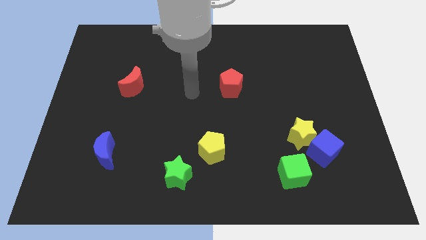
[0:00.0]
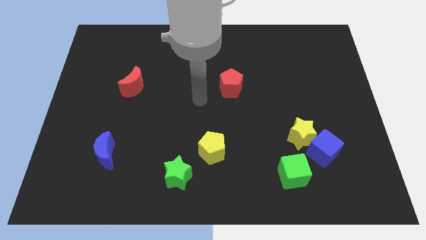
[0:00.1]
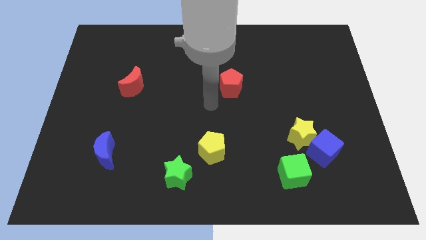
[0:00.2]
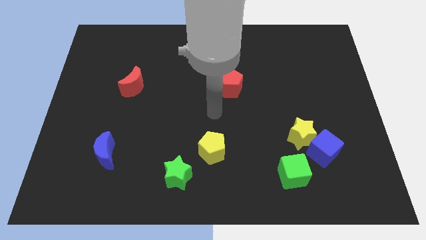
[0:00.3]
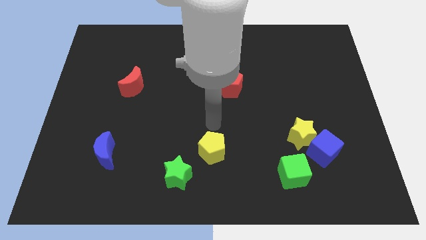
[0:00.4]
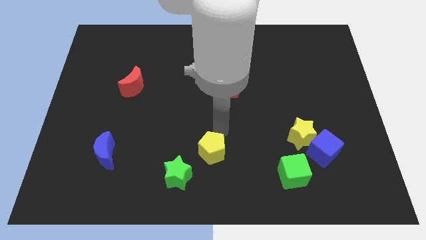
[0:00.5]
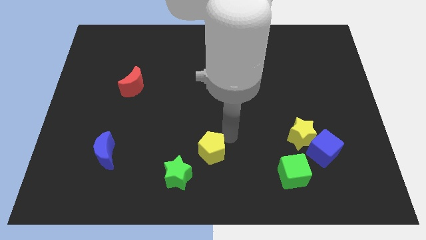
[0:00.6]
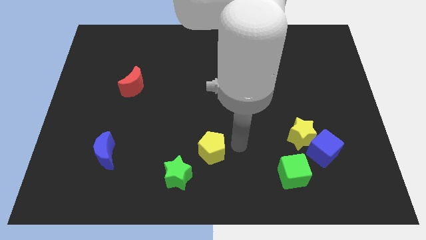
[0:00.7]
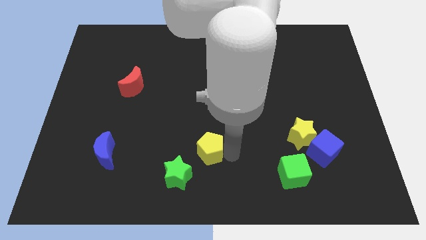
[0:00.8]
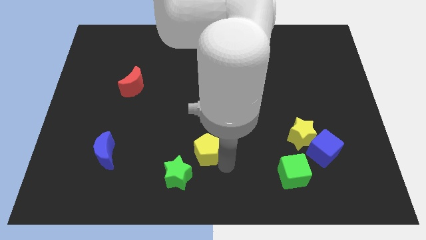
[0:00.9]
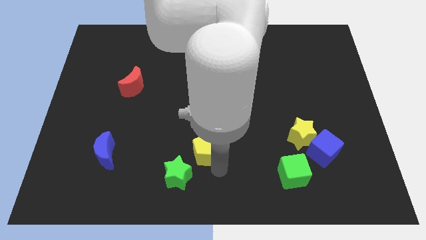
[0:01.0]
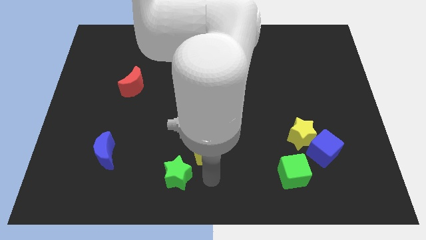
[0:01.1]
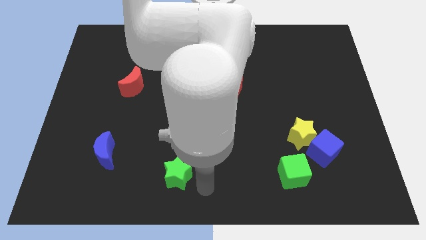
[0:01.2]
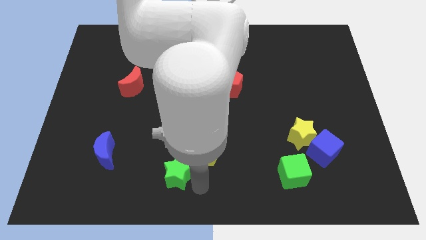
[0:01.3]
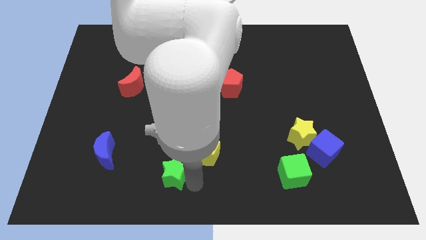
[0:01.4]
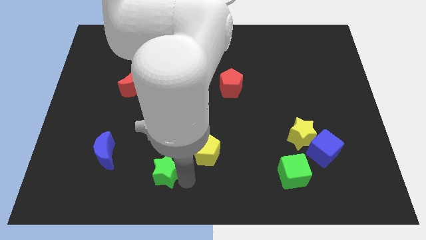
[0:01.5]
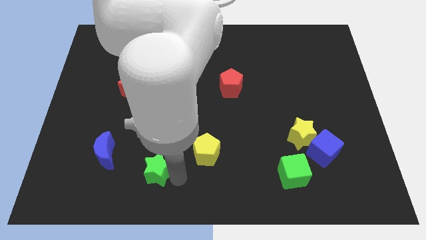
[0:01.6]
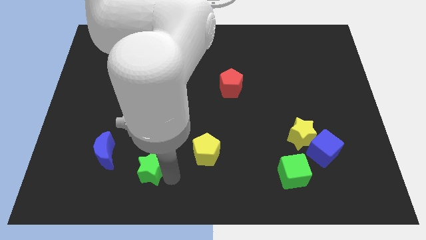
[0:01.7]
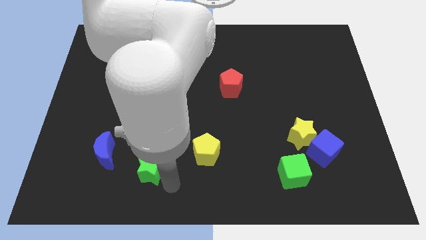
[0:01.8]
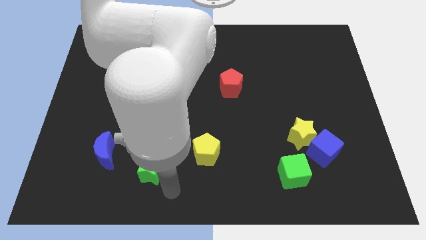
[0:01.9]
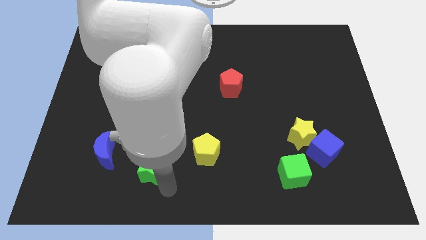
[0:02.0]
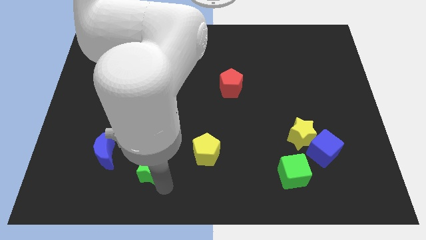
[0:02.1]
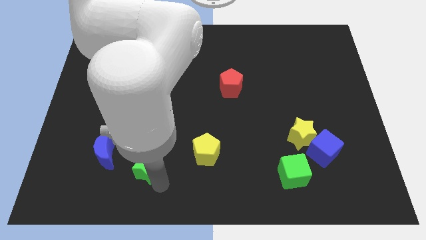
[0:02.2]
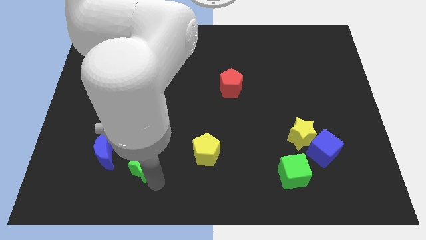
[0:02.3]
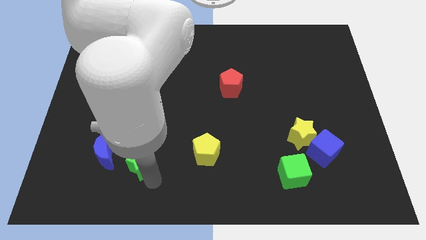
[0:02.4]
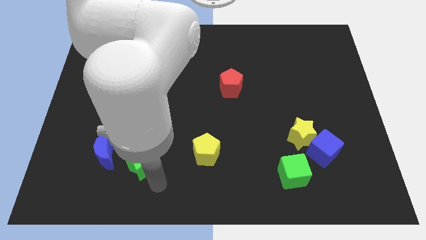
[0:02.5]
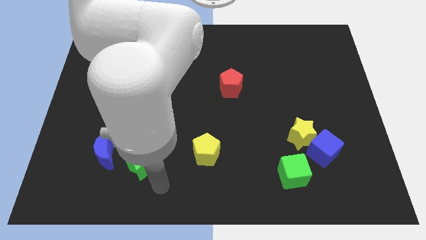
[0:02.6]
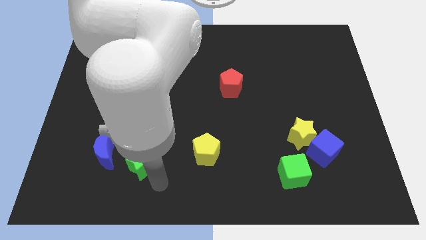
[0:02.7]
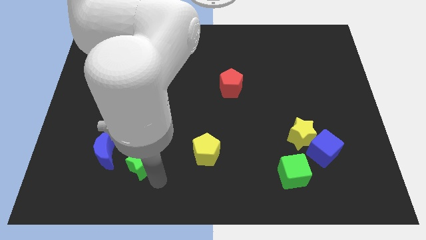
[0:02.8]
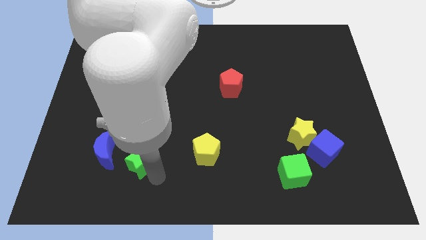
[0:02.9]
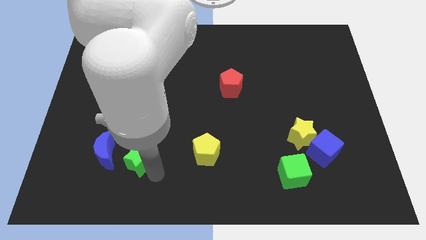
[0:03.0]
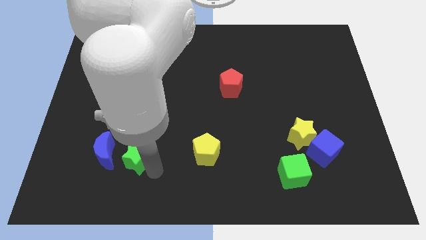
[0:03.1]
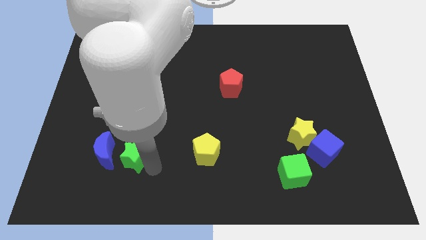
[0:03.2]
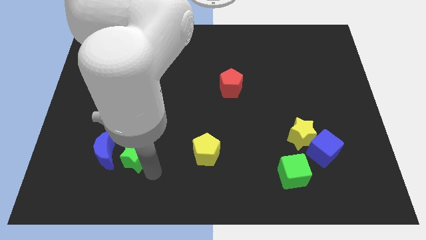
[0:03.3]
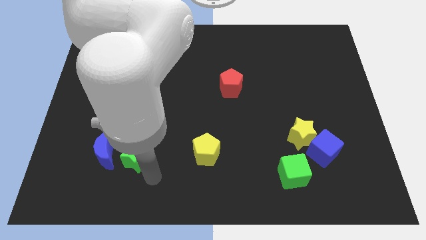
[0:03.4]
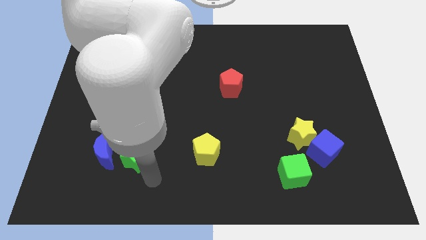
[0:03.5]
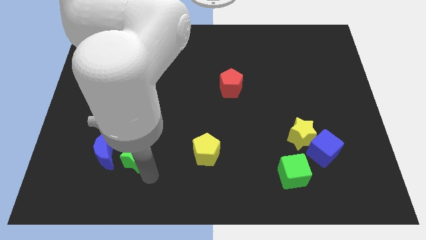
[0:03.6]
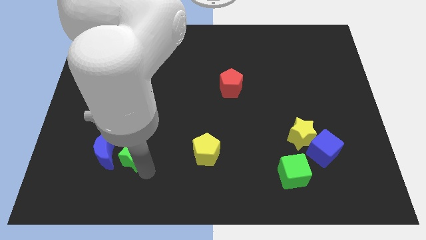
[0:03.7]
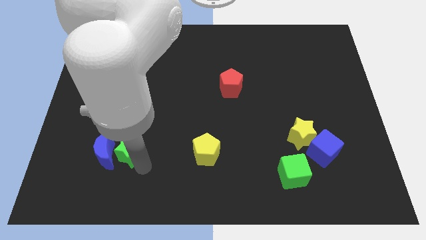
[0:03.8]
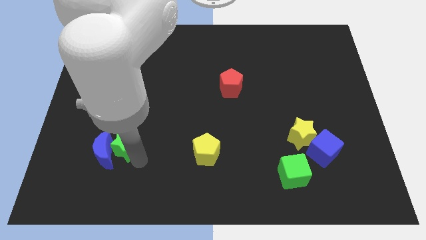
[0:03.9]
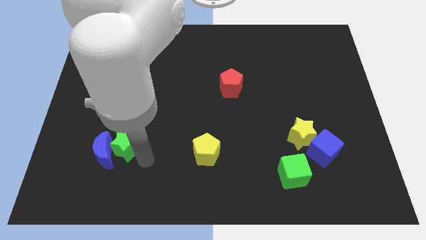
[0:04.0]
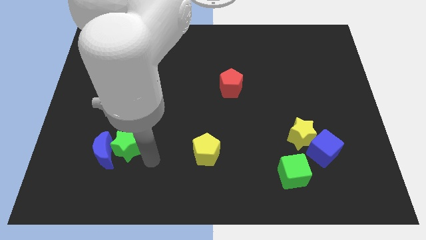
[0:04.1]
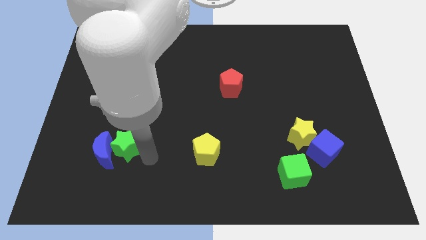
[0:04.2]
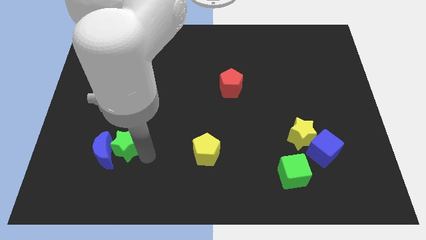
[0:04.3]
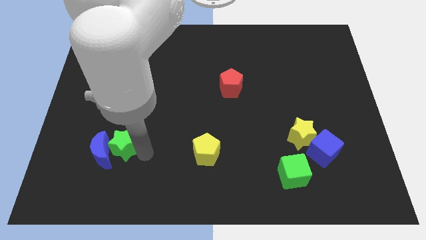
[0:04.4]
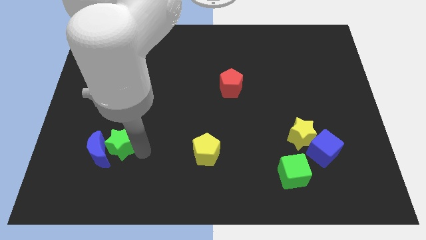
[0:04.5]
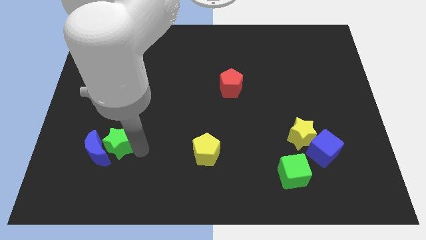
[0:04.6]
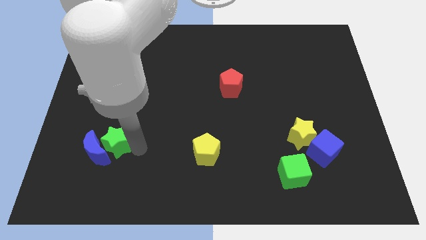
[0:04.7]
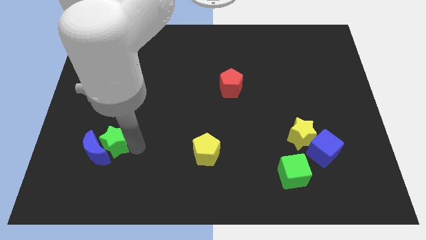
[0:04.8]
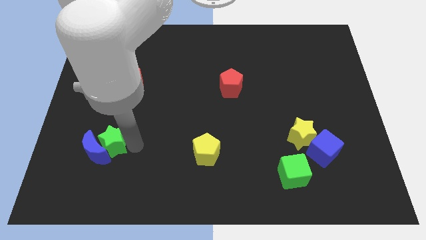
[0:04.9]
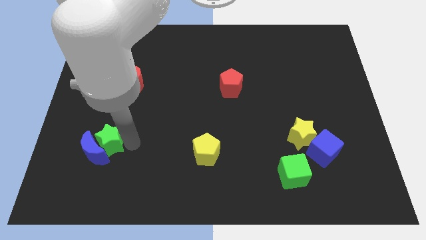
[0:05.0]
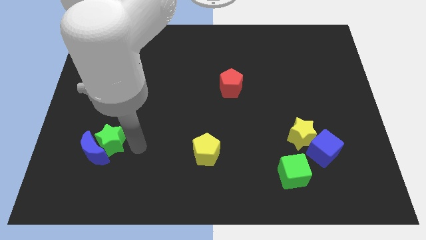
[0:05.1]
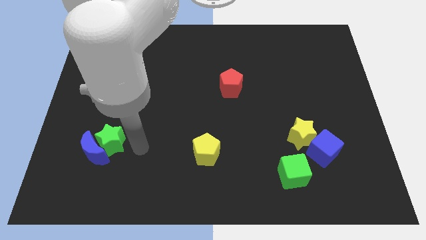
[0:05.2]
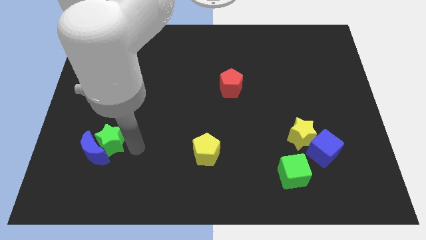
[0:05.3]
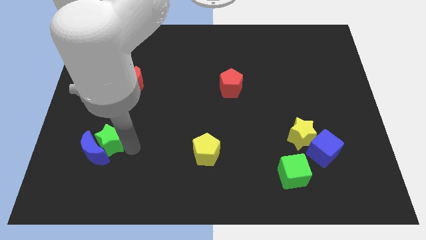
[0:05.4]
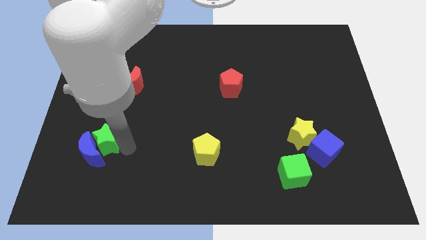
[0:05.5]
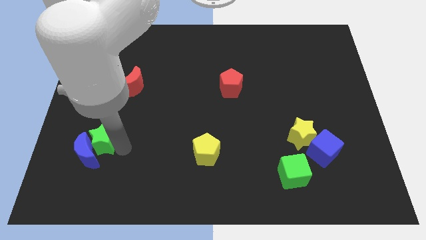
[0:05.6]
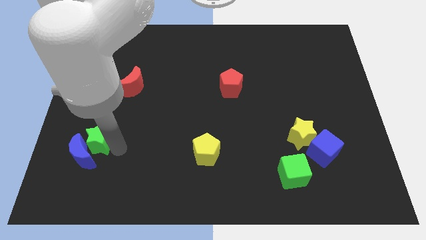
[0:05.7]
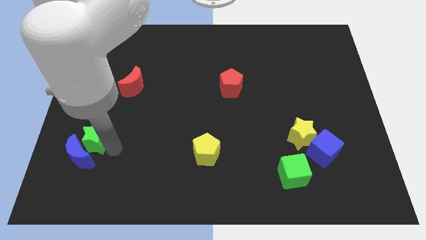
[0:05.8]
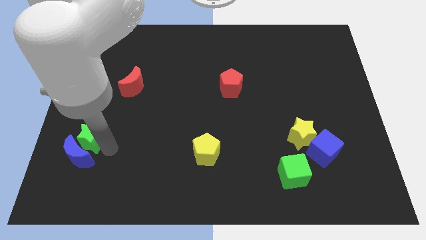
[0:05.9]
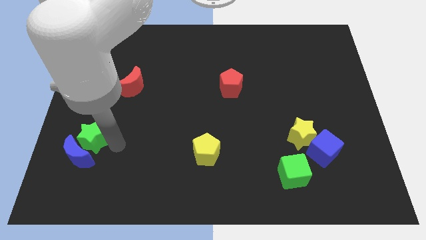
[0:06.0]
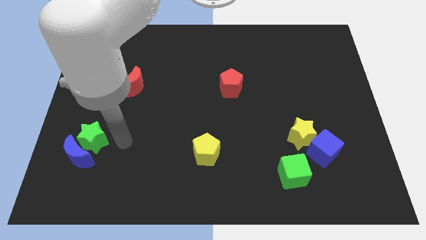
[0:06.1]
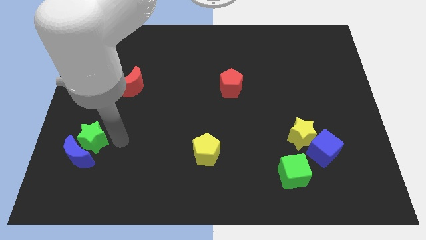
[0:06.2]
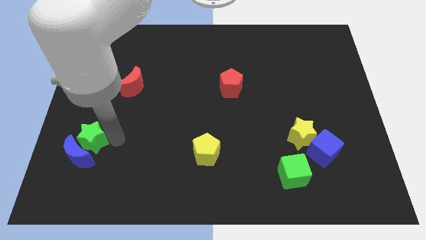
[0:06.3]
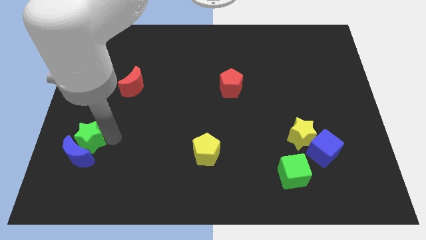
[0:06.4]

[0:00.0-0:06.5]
push the green star to the top left of the blue moon
